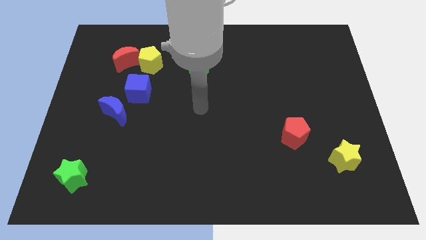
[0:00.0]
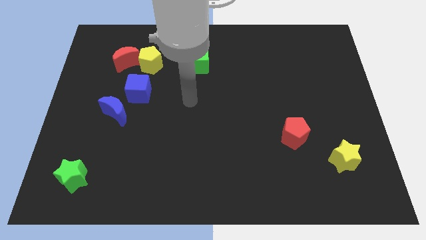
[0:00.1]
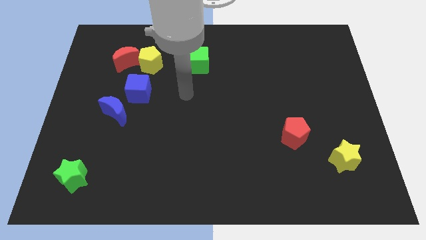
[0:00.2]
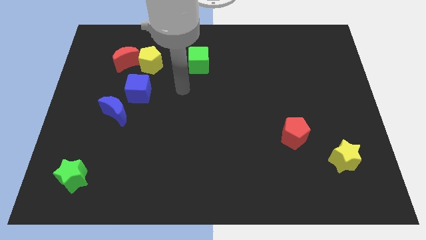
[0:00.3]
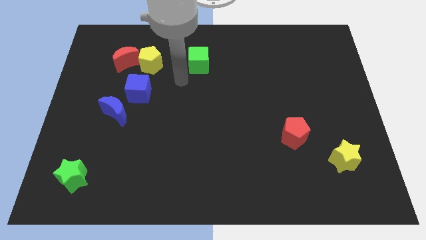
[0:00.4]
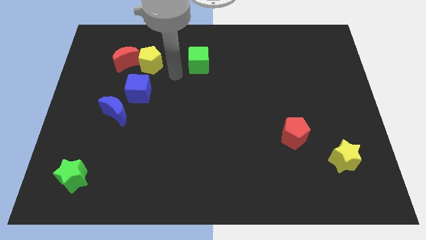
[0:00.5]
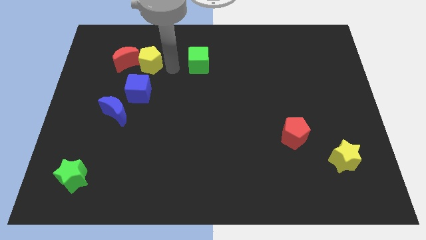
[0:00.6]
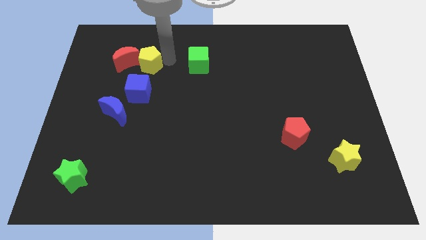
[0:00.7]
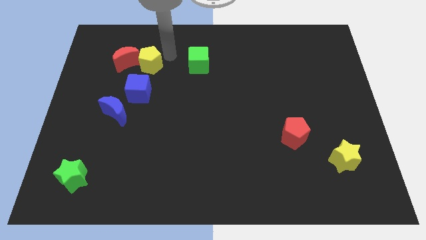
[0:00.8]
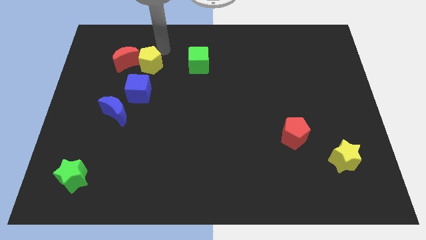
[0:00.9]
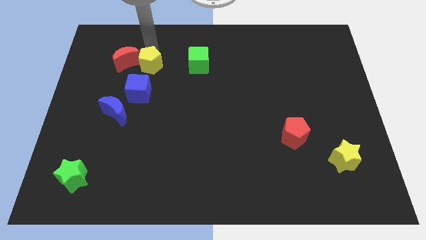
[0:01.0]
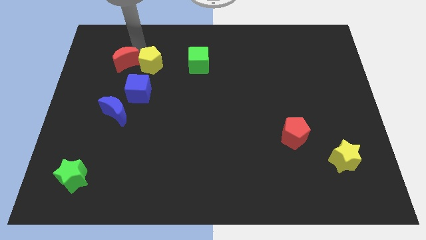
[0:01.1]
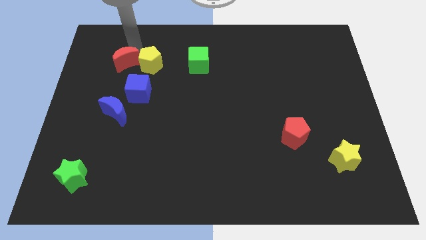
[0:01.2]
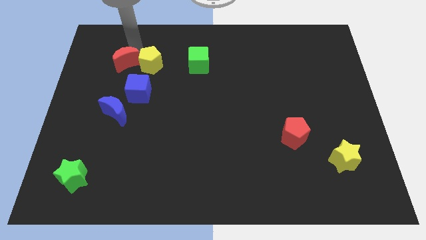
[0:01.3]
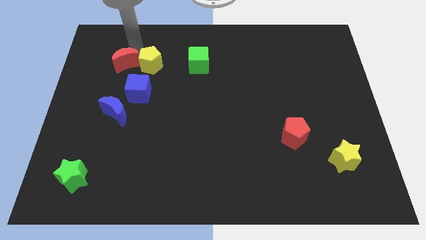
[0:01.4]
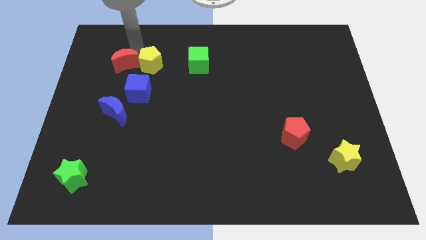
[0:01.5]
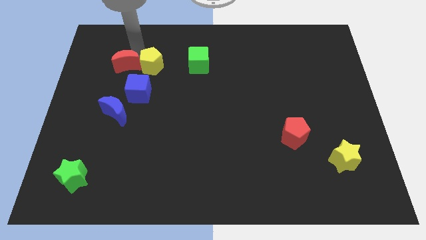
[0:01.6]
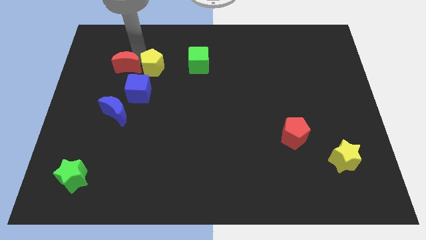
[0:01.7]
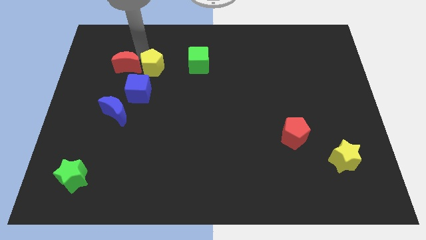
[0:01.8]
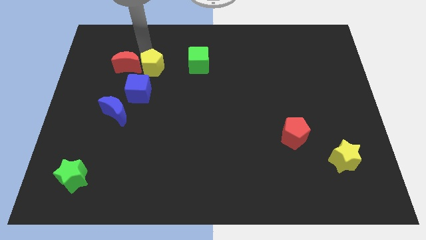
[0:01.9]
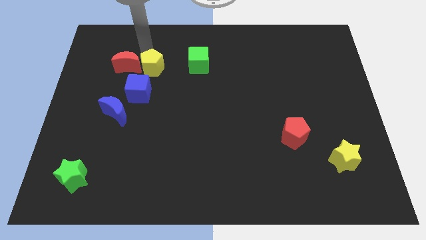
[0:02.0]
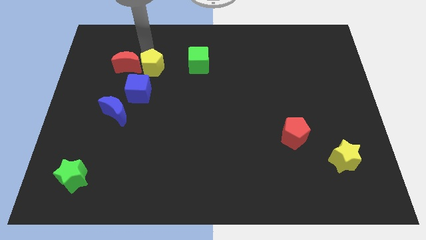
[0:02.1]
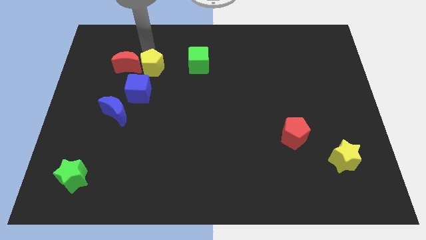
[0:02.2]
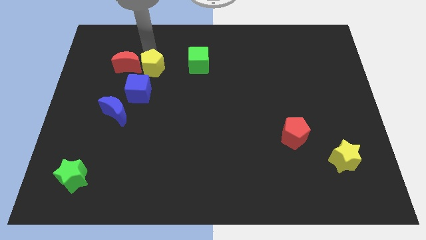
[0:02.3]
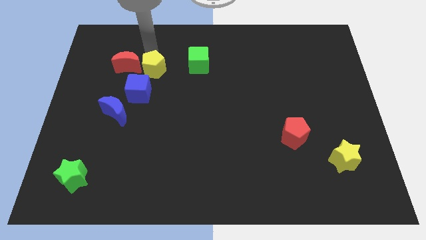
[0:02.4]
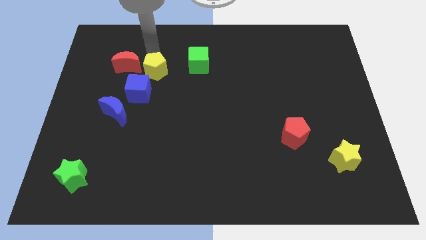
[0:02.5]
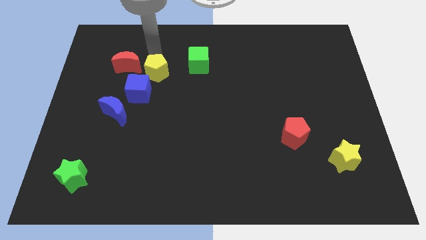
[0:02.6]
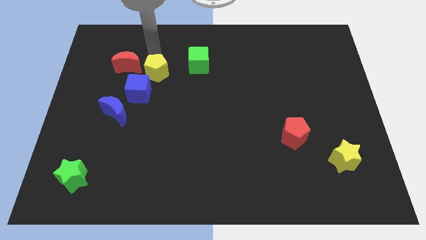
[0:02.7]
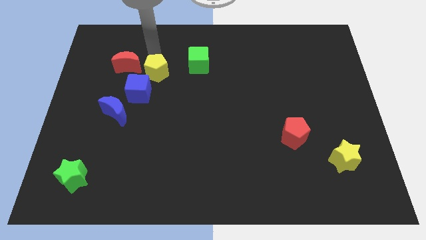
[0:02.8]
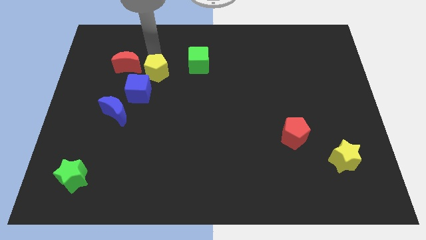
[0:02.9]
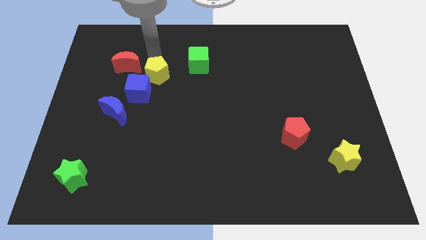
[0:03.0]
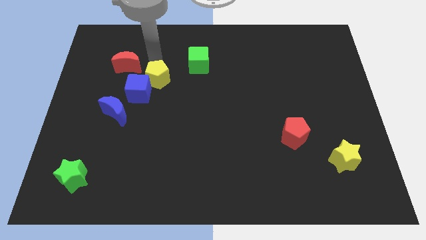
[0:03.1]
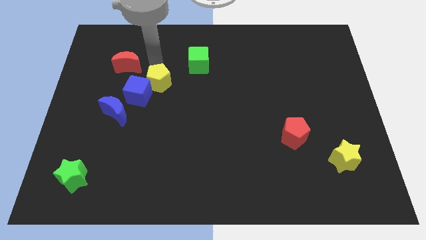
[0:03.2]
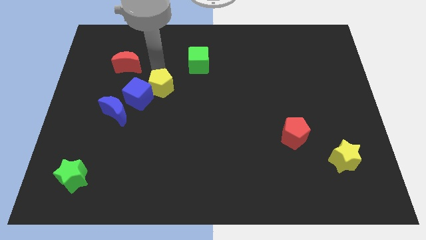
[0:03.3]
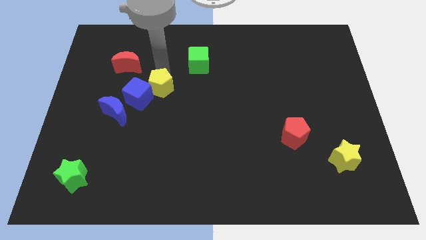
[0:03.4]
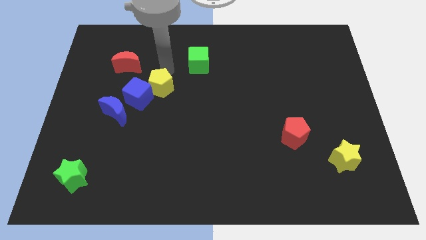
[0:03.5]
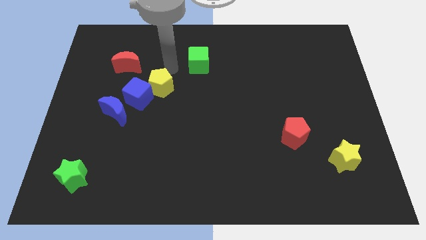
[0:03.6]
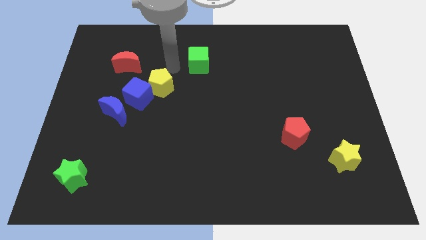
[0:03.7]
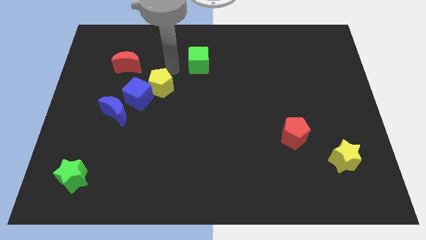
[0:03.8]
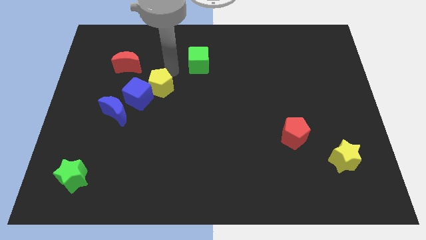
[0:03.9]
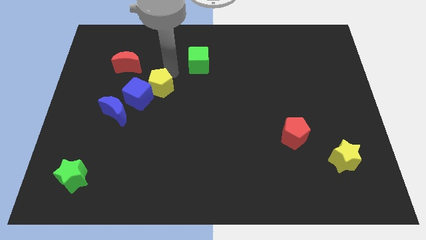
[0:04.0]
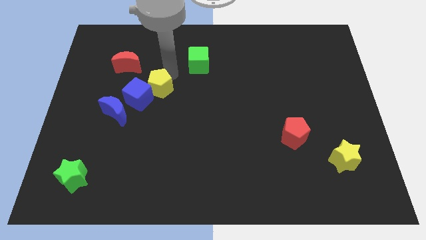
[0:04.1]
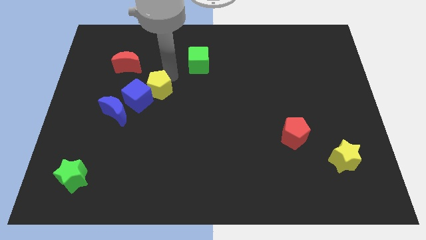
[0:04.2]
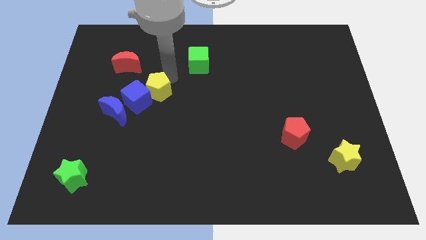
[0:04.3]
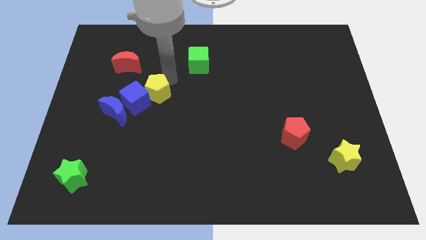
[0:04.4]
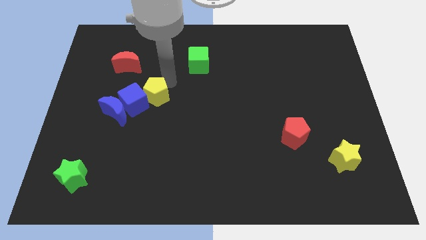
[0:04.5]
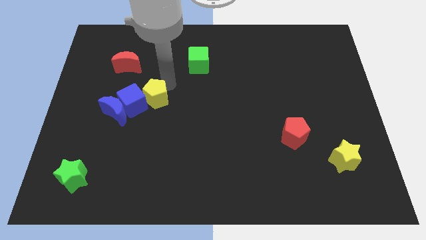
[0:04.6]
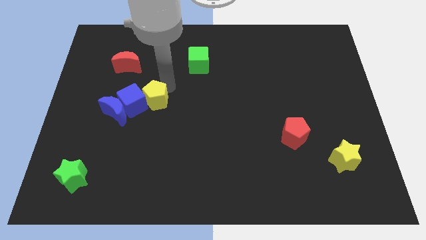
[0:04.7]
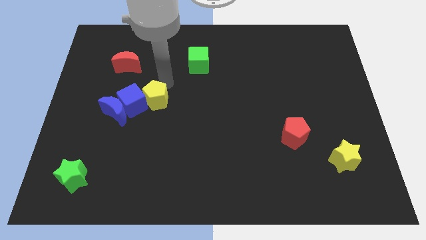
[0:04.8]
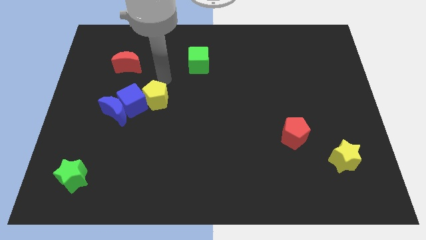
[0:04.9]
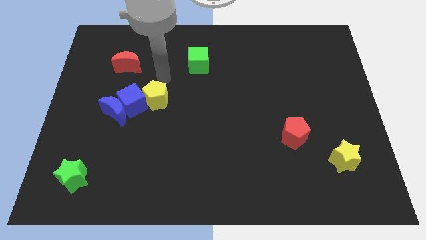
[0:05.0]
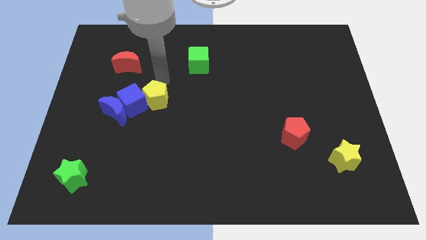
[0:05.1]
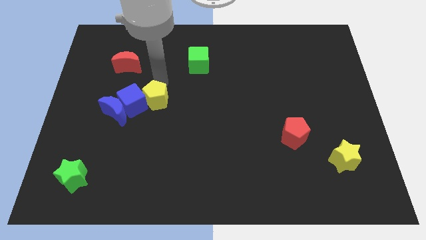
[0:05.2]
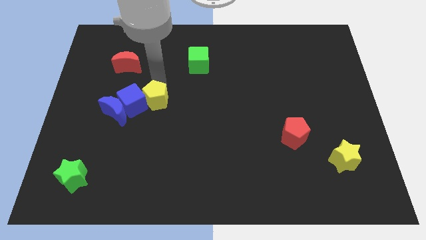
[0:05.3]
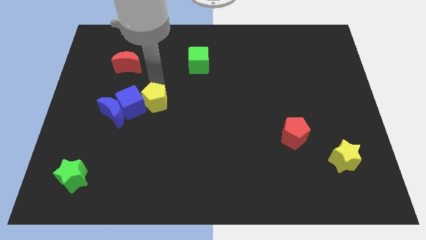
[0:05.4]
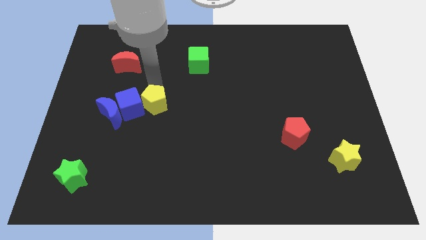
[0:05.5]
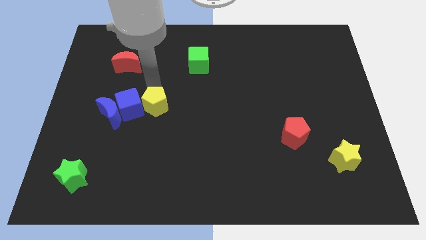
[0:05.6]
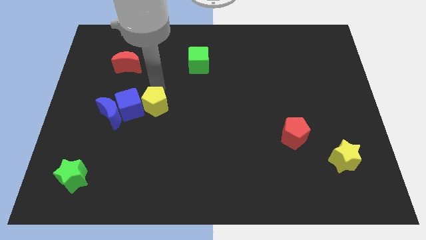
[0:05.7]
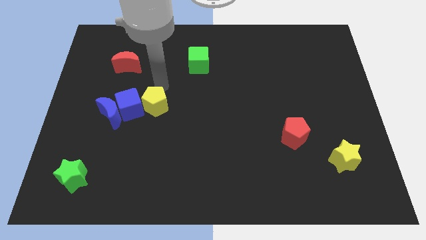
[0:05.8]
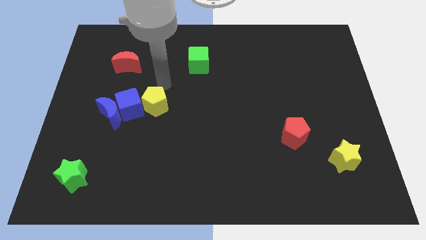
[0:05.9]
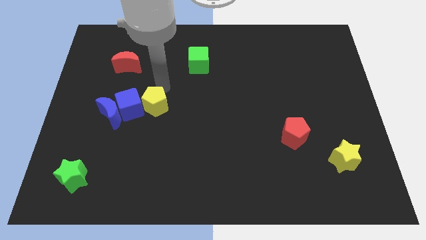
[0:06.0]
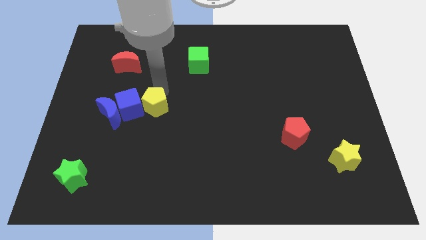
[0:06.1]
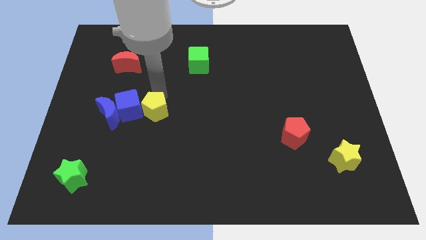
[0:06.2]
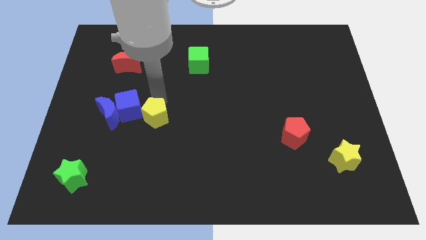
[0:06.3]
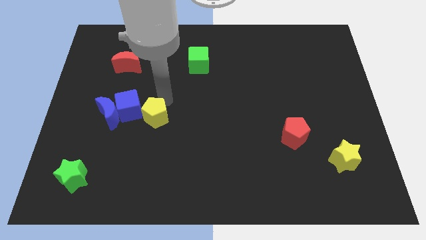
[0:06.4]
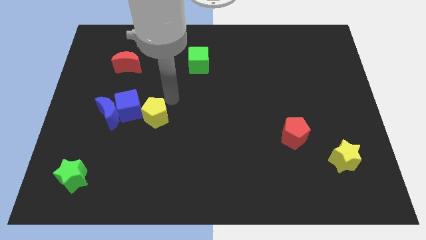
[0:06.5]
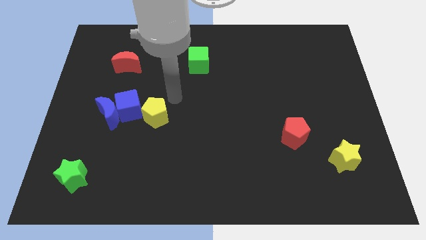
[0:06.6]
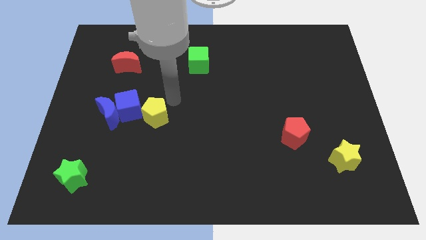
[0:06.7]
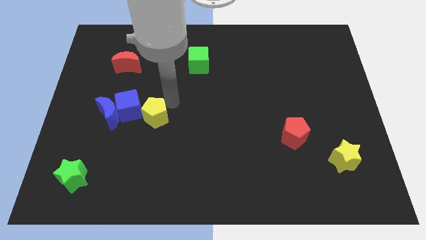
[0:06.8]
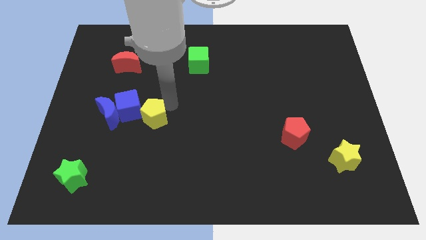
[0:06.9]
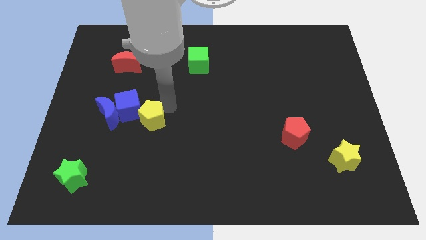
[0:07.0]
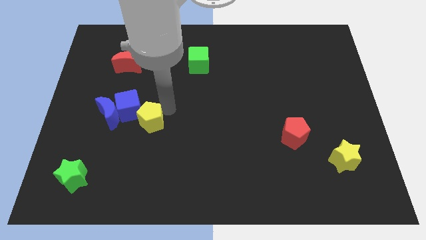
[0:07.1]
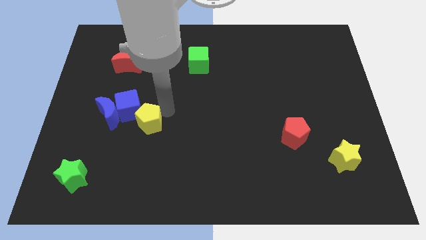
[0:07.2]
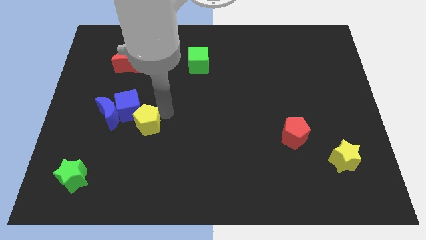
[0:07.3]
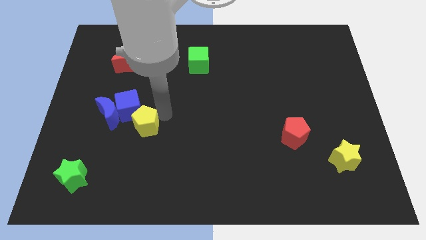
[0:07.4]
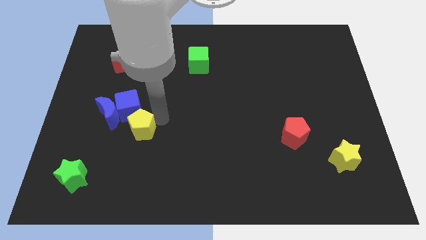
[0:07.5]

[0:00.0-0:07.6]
move the yellow pentagon down

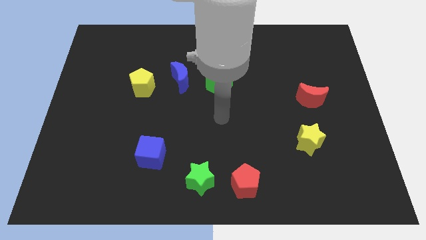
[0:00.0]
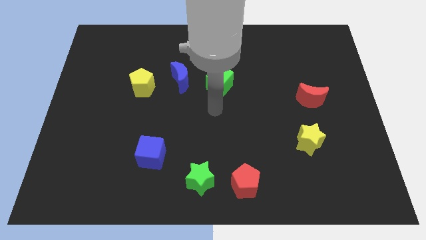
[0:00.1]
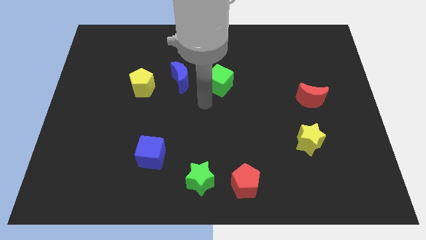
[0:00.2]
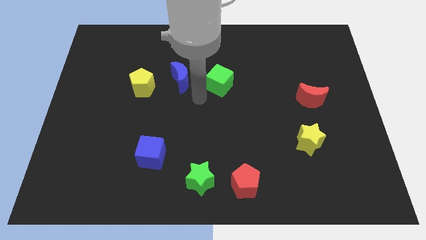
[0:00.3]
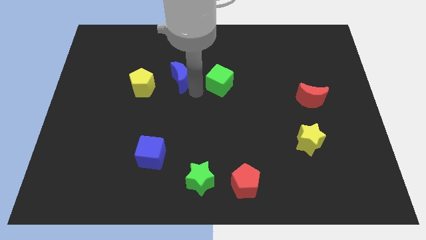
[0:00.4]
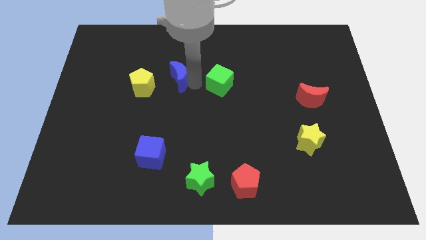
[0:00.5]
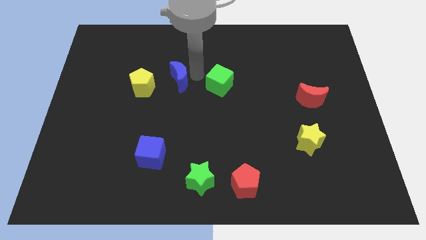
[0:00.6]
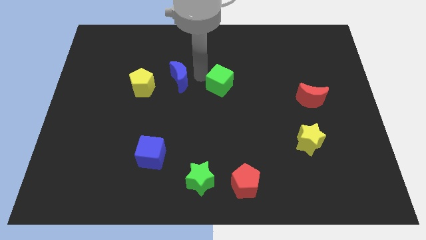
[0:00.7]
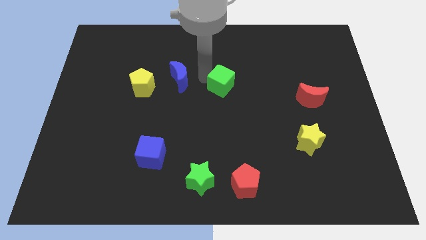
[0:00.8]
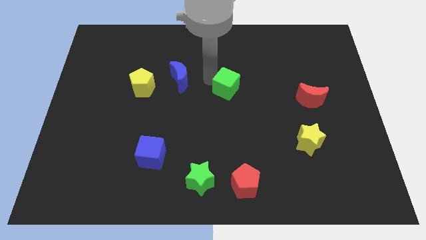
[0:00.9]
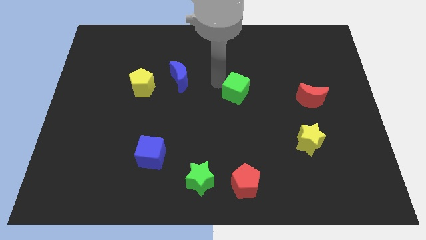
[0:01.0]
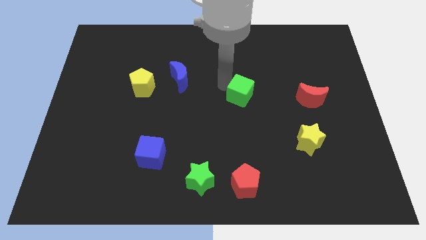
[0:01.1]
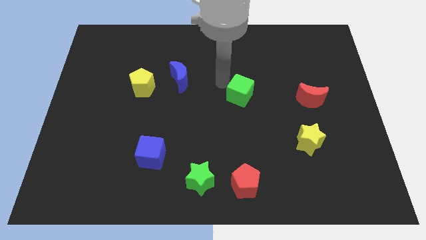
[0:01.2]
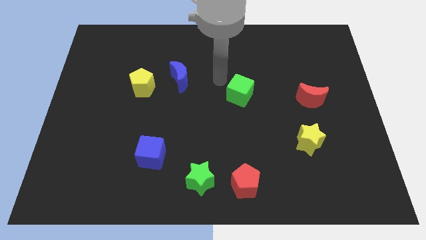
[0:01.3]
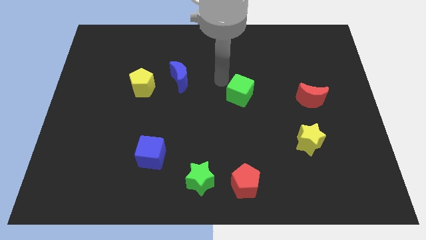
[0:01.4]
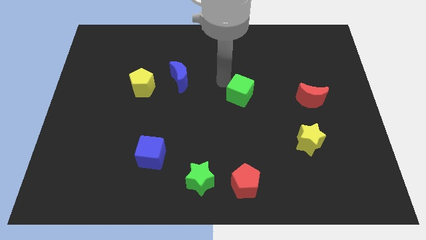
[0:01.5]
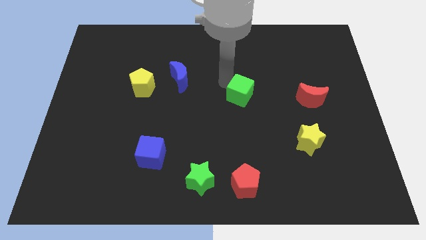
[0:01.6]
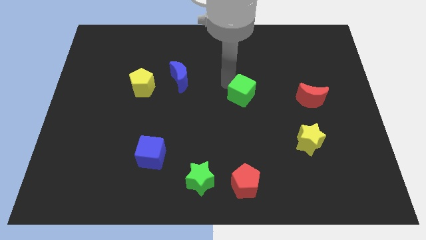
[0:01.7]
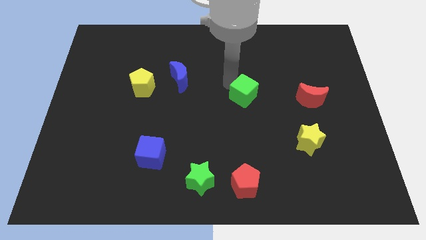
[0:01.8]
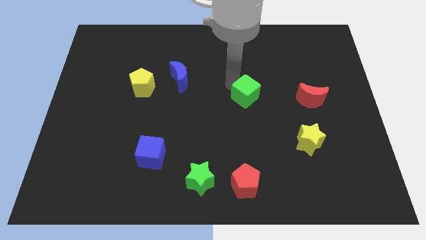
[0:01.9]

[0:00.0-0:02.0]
push the green cube downwards and right diagonally a little
